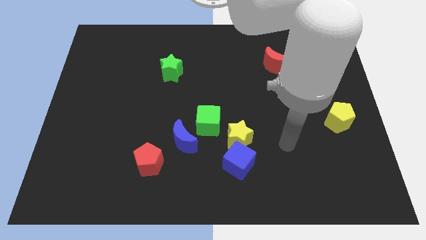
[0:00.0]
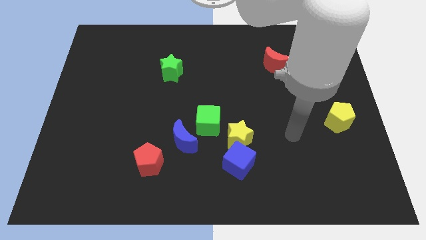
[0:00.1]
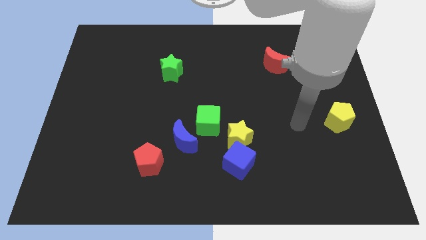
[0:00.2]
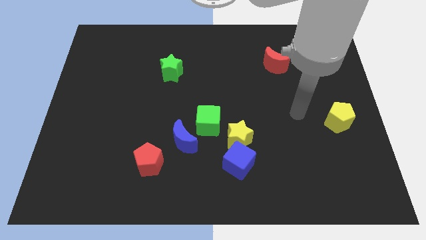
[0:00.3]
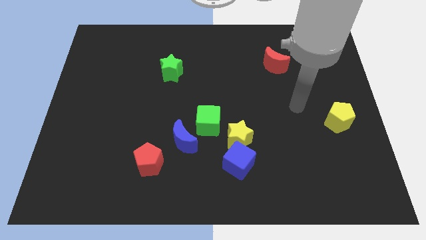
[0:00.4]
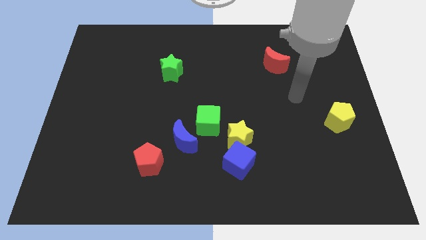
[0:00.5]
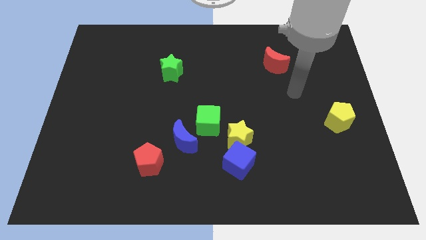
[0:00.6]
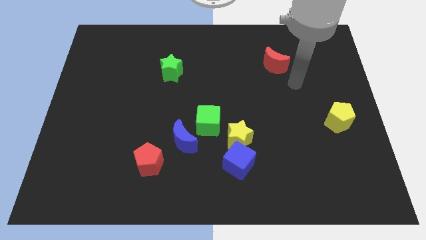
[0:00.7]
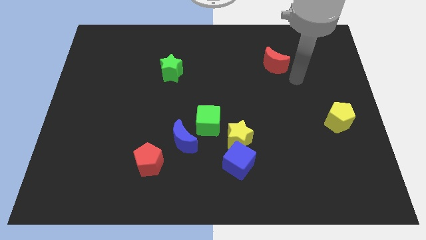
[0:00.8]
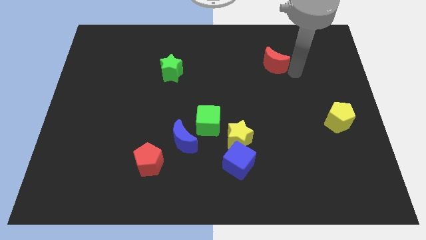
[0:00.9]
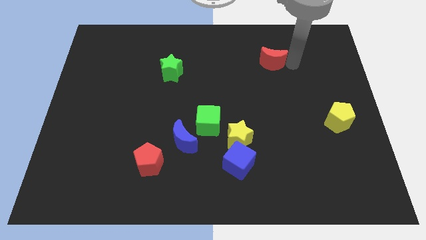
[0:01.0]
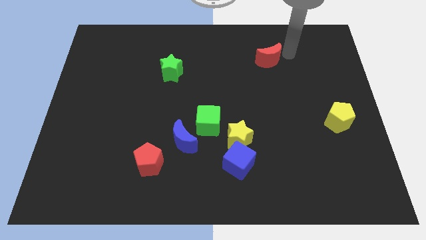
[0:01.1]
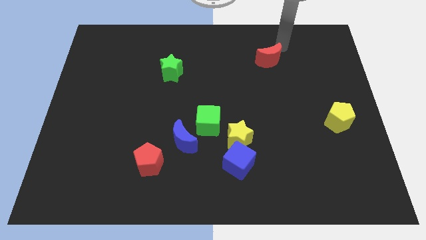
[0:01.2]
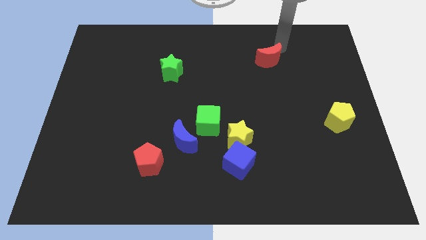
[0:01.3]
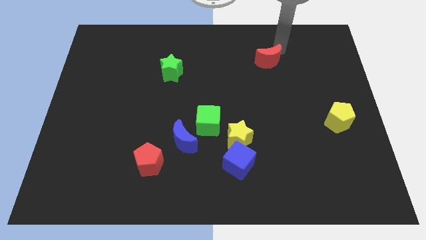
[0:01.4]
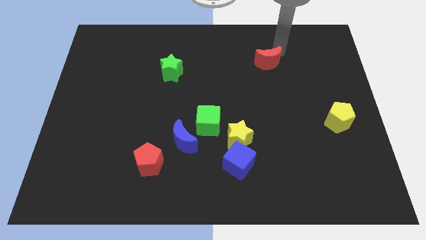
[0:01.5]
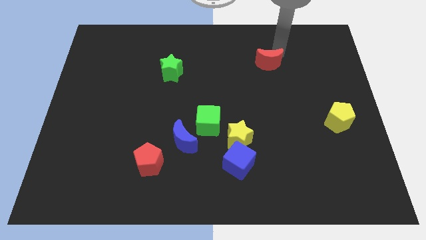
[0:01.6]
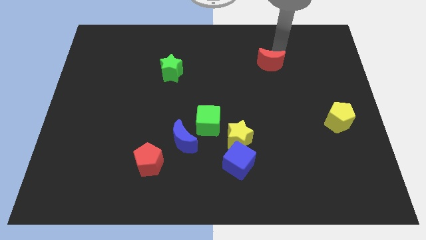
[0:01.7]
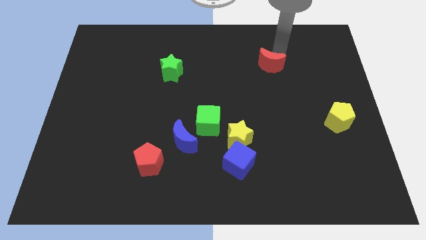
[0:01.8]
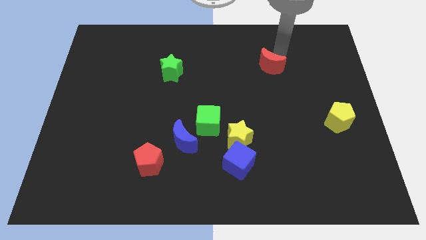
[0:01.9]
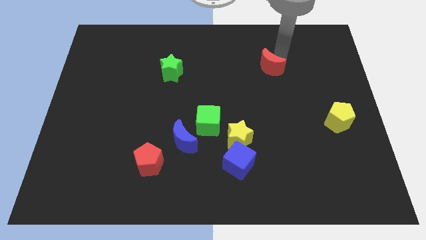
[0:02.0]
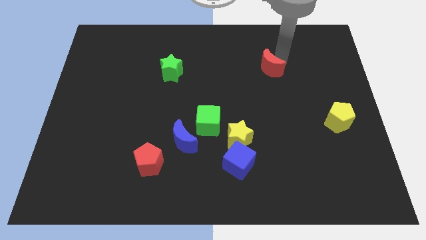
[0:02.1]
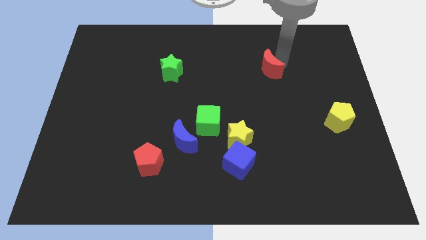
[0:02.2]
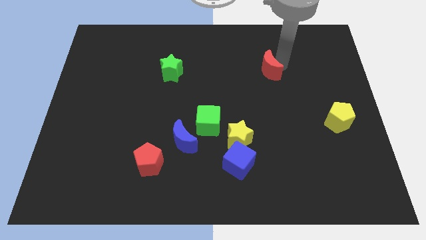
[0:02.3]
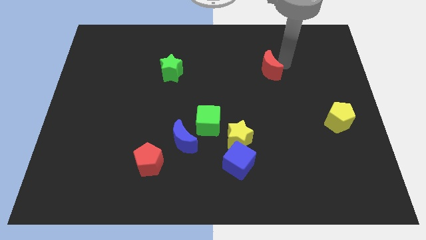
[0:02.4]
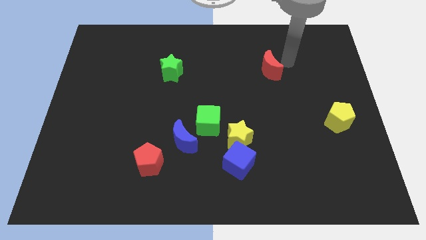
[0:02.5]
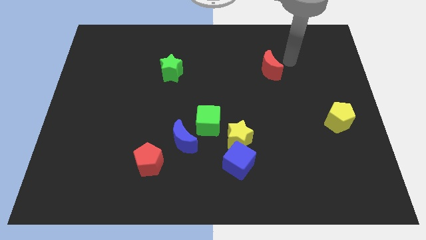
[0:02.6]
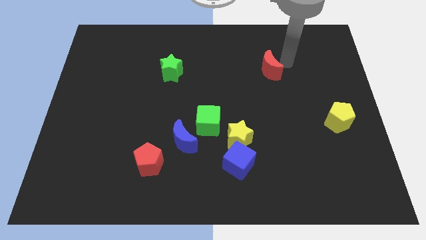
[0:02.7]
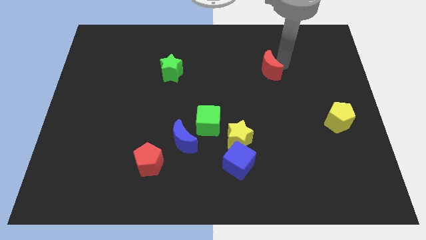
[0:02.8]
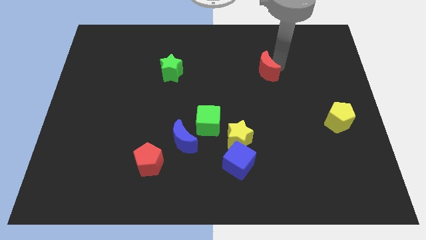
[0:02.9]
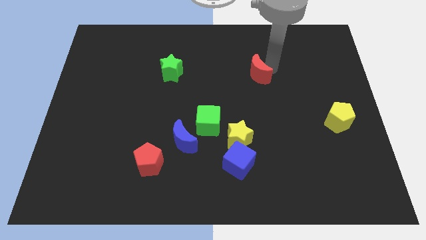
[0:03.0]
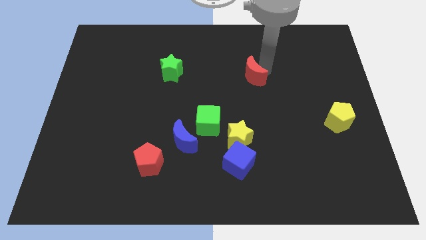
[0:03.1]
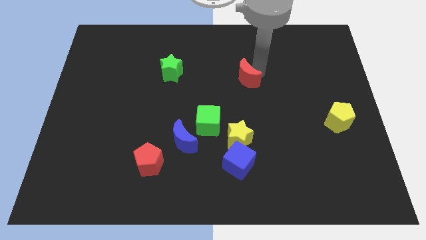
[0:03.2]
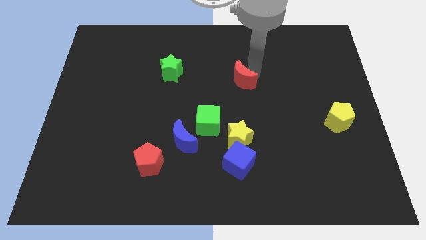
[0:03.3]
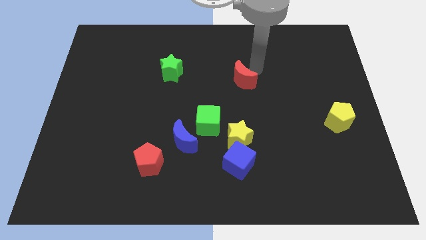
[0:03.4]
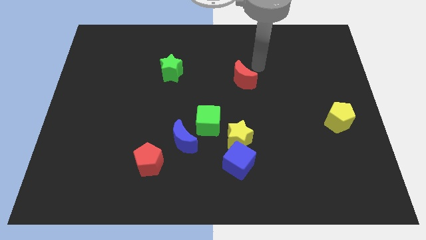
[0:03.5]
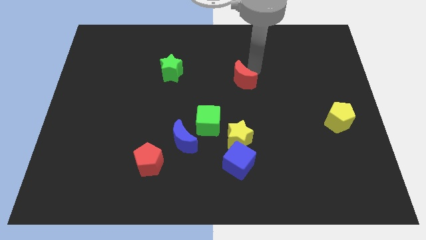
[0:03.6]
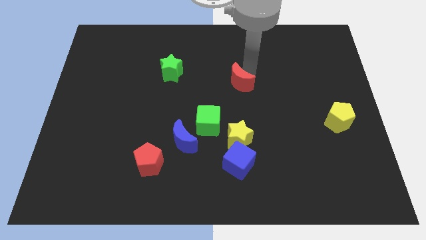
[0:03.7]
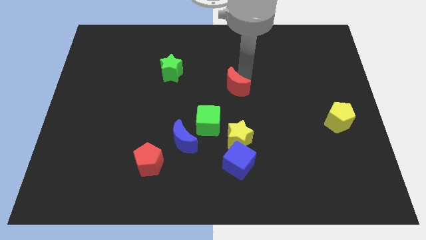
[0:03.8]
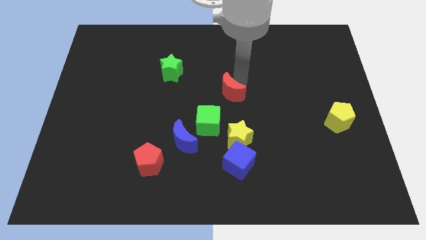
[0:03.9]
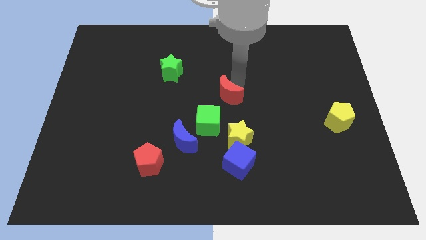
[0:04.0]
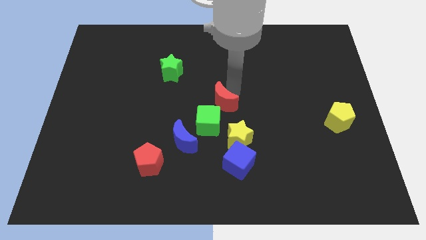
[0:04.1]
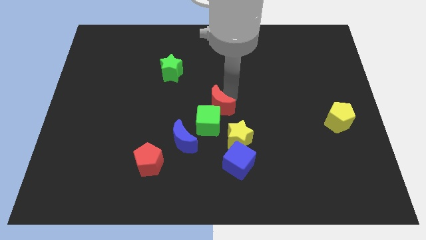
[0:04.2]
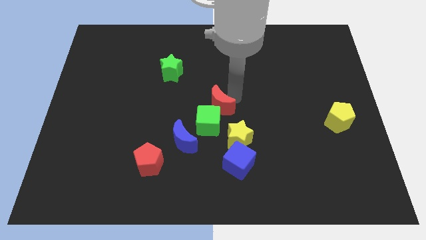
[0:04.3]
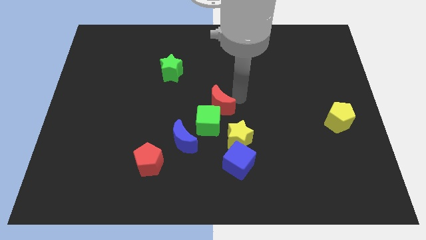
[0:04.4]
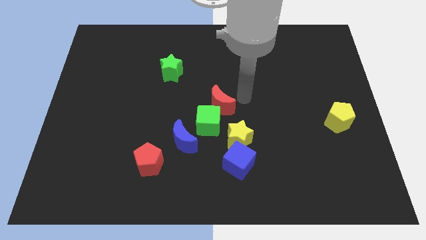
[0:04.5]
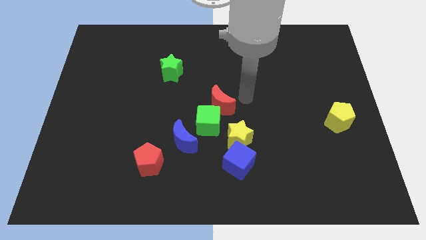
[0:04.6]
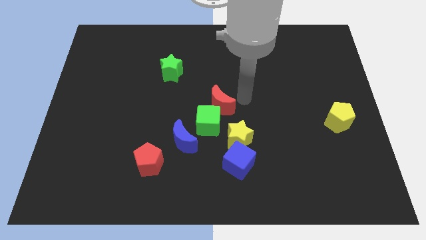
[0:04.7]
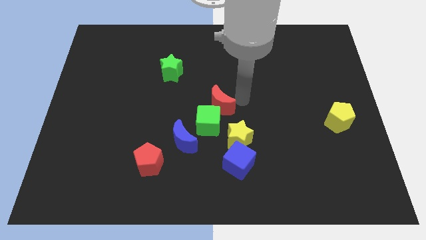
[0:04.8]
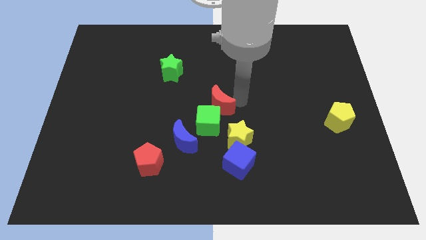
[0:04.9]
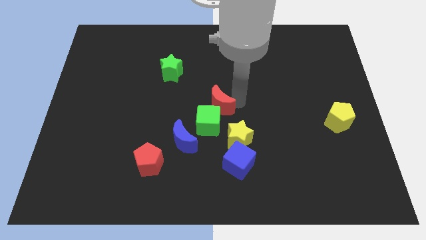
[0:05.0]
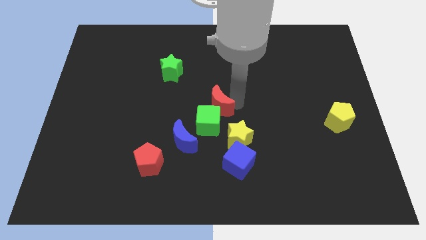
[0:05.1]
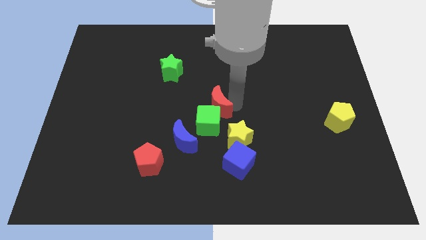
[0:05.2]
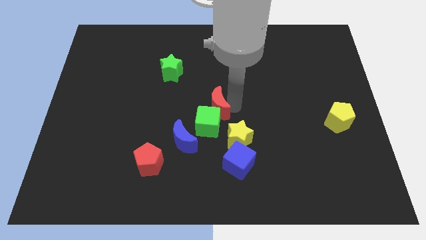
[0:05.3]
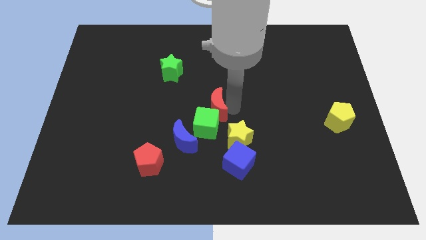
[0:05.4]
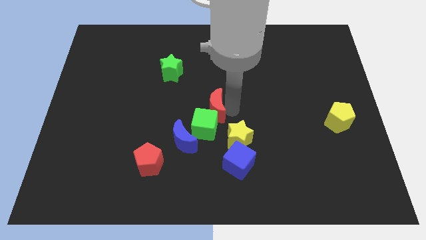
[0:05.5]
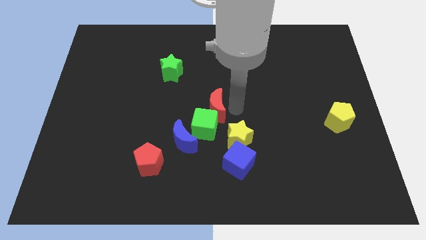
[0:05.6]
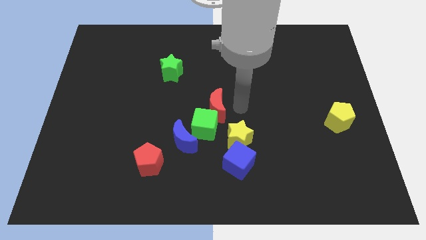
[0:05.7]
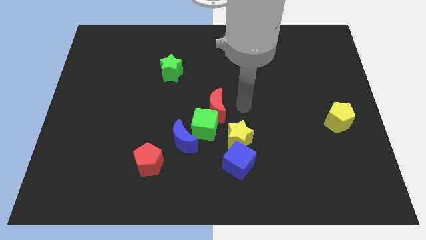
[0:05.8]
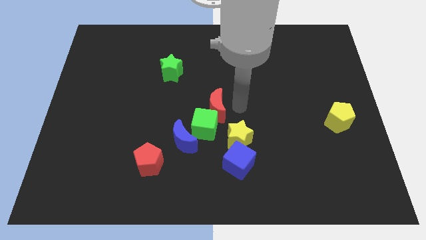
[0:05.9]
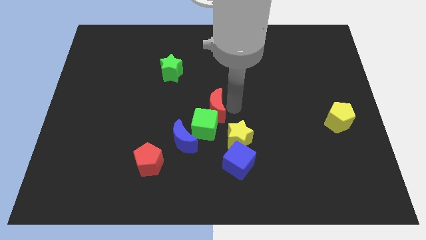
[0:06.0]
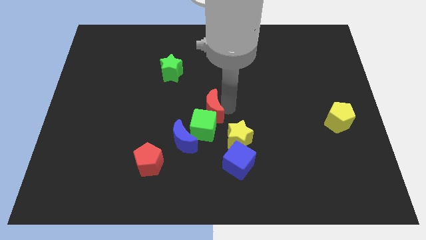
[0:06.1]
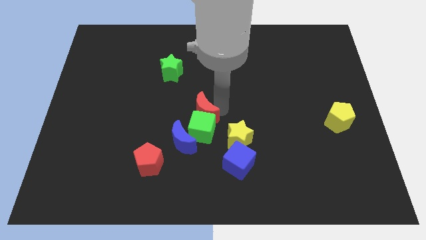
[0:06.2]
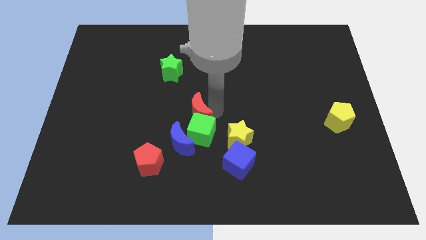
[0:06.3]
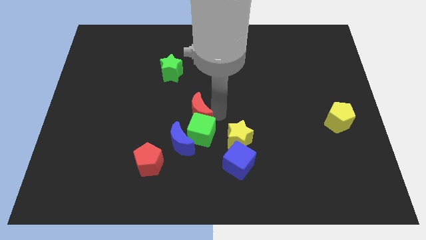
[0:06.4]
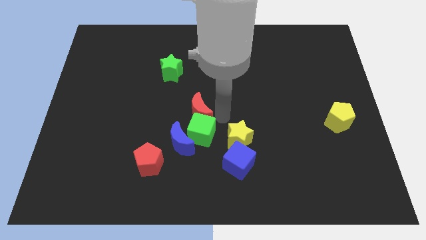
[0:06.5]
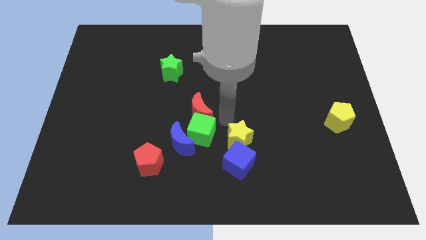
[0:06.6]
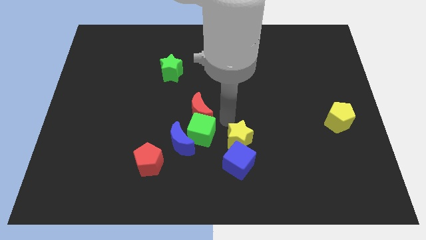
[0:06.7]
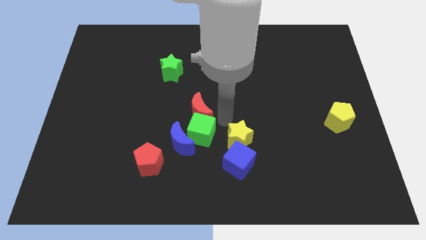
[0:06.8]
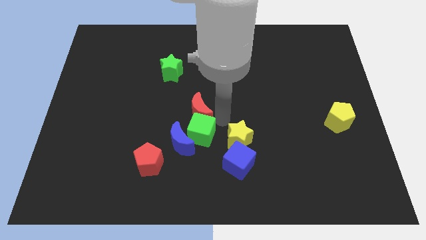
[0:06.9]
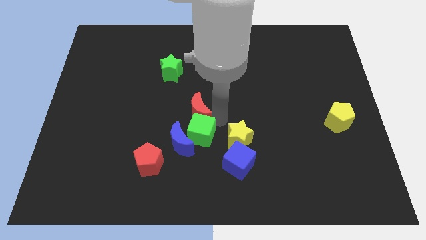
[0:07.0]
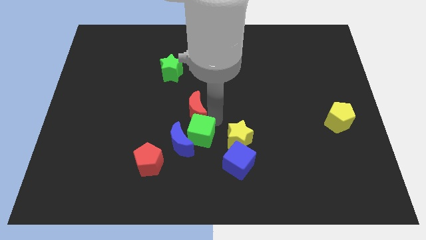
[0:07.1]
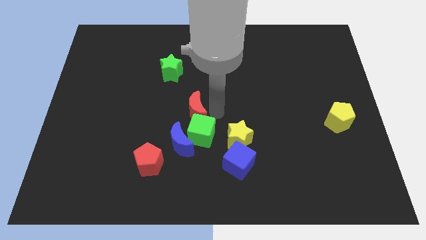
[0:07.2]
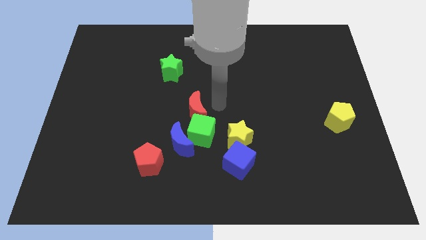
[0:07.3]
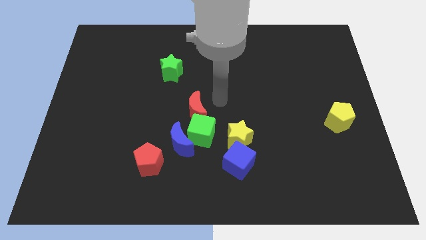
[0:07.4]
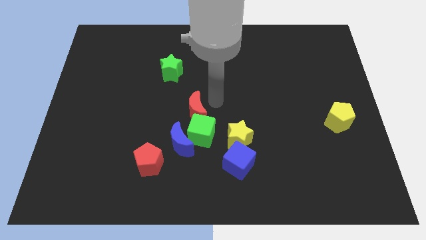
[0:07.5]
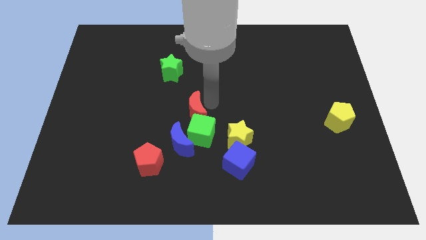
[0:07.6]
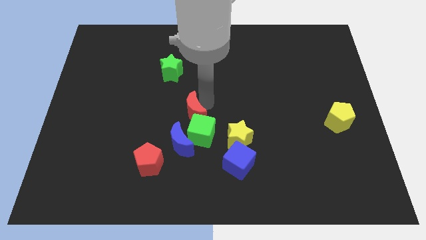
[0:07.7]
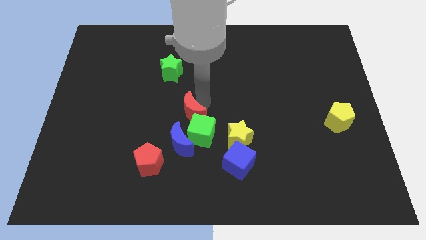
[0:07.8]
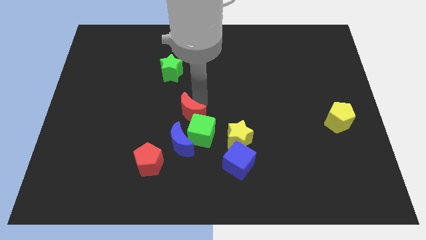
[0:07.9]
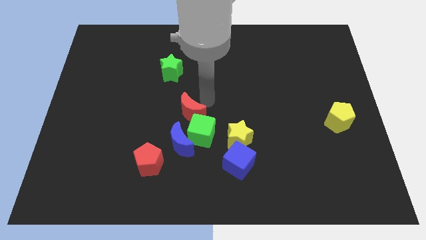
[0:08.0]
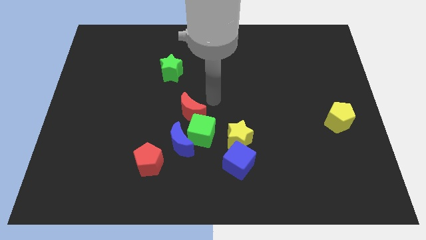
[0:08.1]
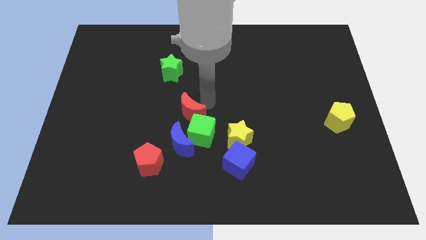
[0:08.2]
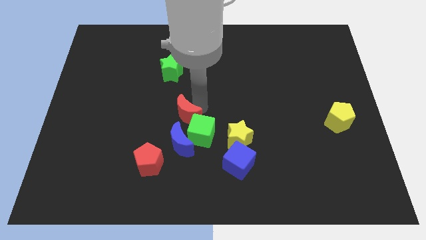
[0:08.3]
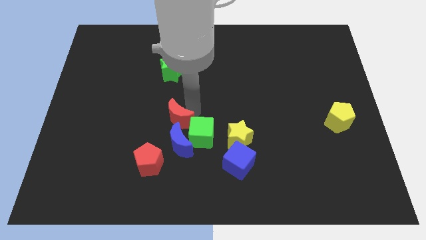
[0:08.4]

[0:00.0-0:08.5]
move the red moon left of the green cube
